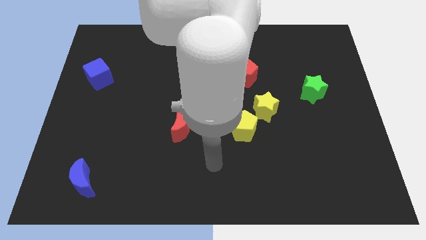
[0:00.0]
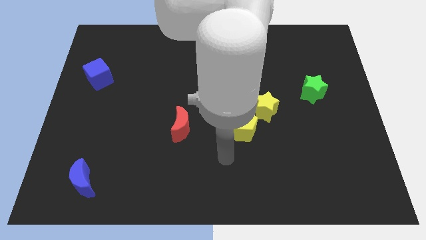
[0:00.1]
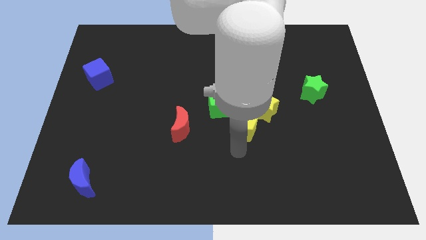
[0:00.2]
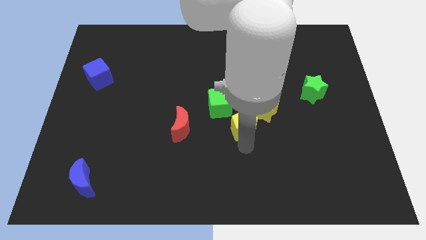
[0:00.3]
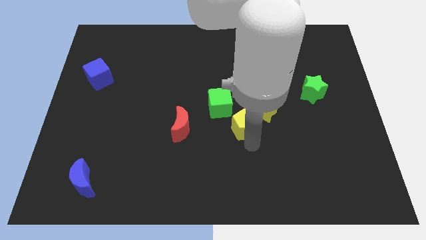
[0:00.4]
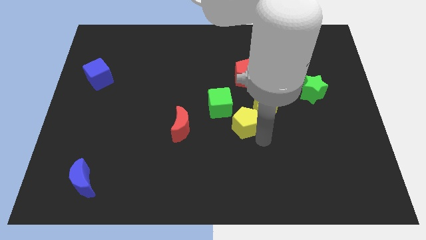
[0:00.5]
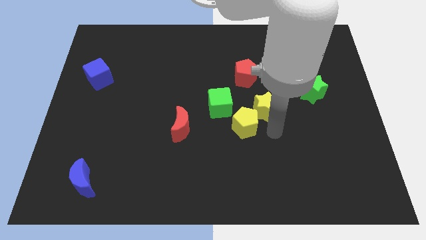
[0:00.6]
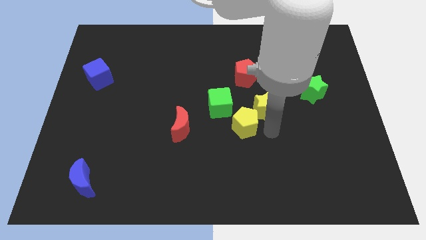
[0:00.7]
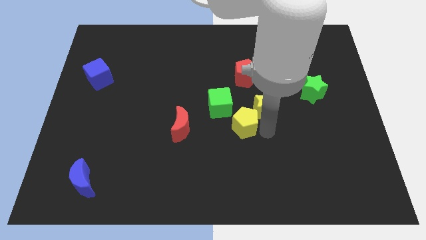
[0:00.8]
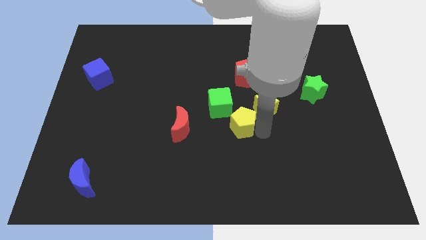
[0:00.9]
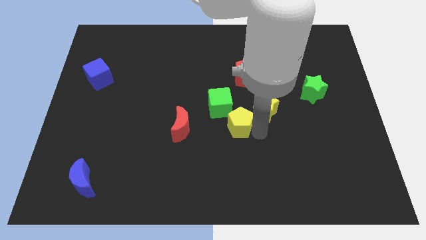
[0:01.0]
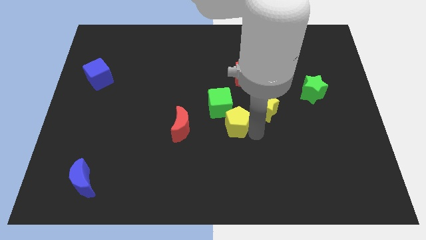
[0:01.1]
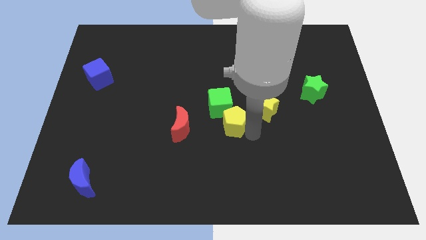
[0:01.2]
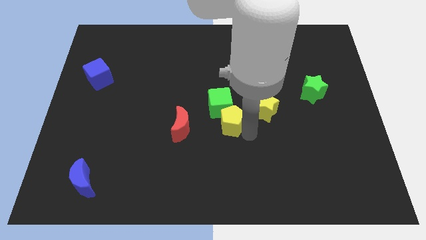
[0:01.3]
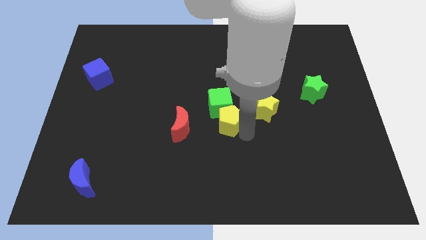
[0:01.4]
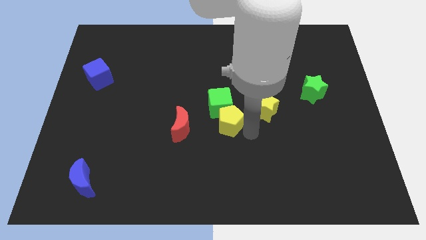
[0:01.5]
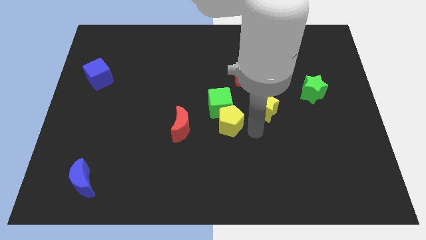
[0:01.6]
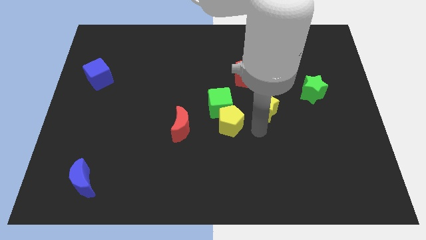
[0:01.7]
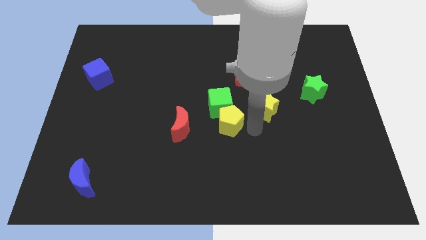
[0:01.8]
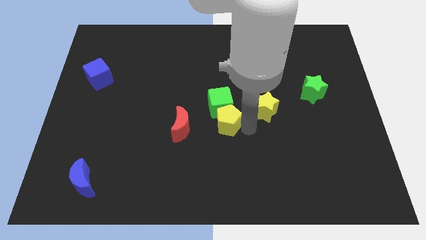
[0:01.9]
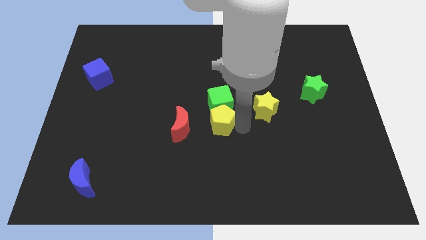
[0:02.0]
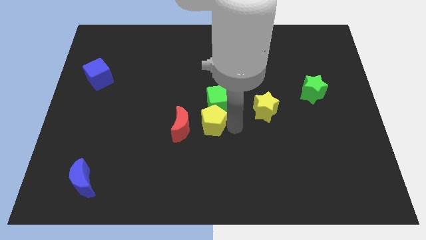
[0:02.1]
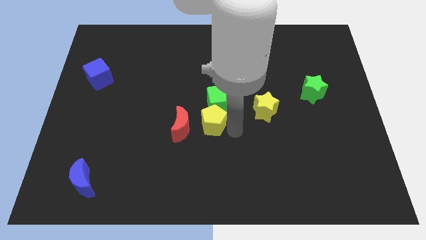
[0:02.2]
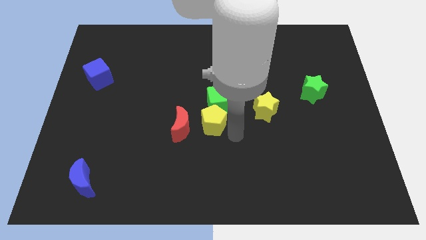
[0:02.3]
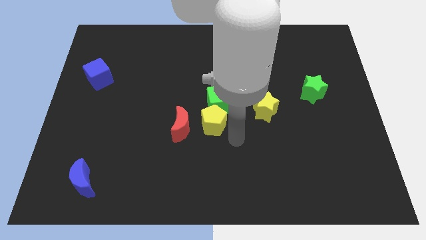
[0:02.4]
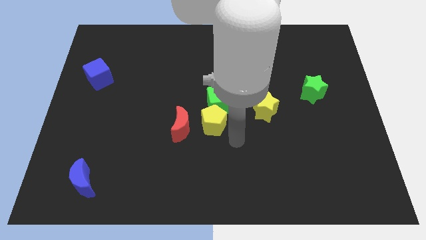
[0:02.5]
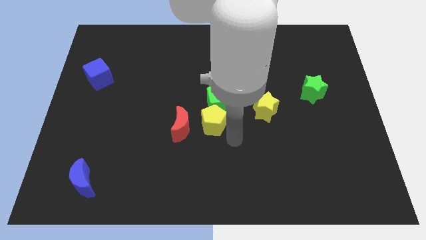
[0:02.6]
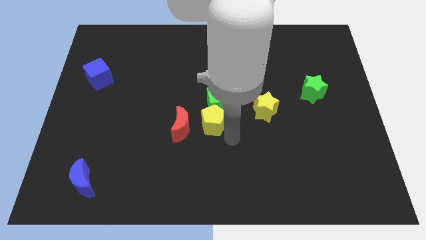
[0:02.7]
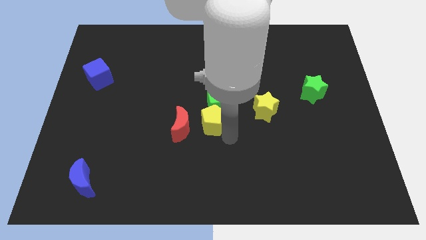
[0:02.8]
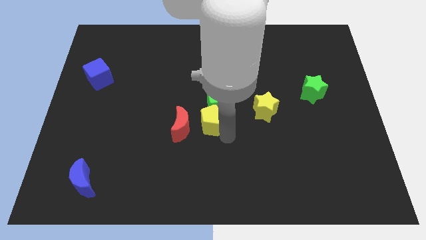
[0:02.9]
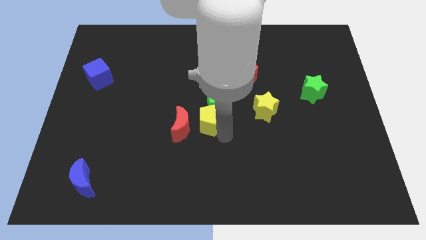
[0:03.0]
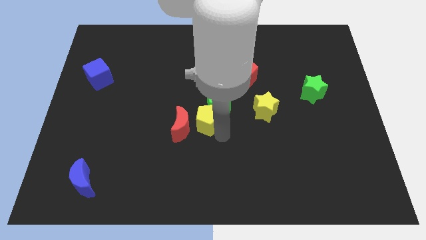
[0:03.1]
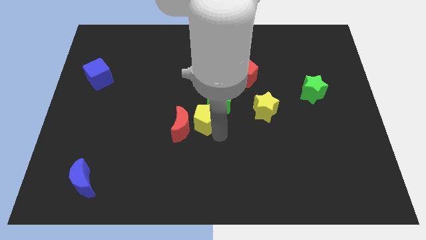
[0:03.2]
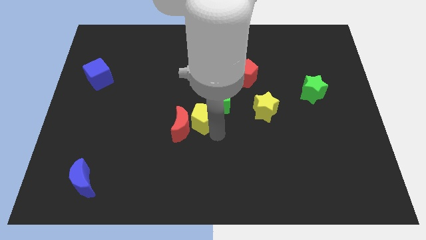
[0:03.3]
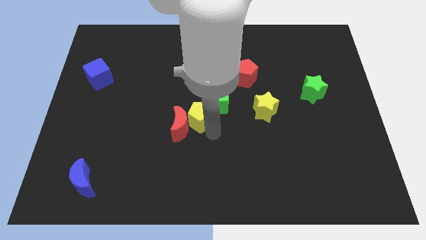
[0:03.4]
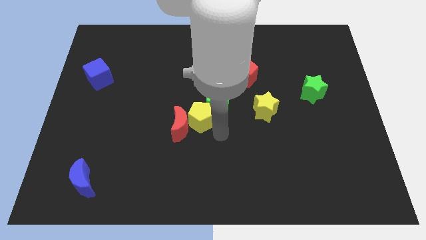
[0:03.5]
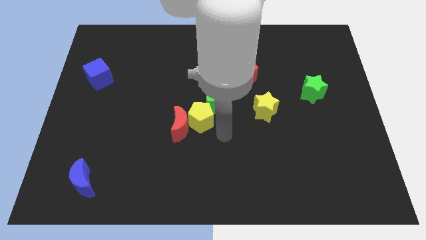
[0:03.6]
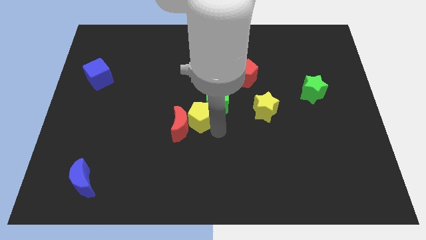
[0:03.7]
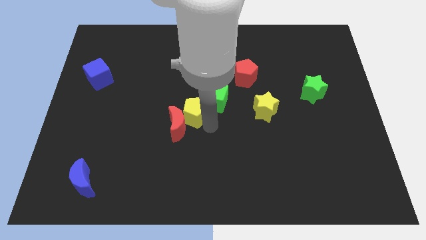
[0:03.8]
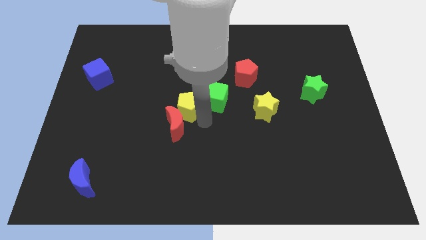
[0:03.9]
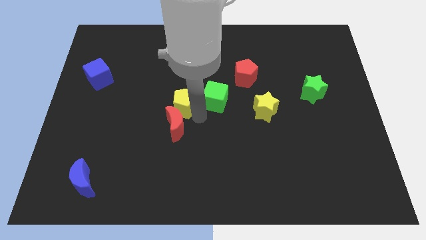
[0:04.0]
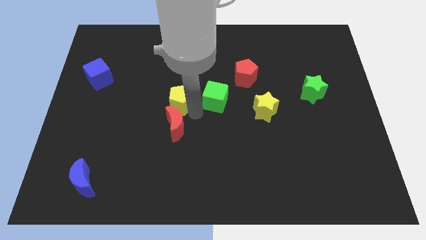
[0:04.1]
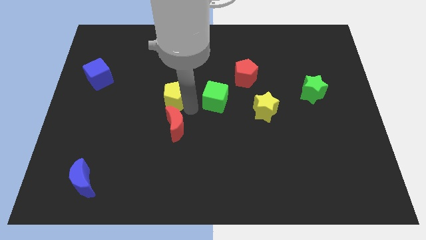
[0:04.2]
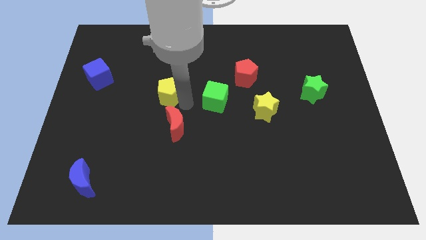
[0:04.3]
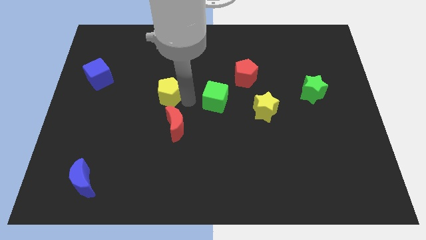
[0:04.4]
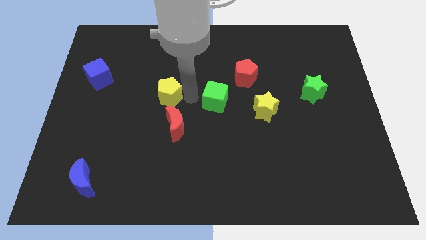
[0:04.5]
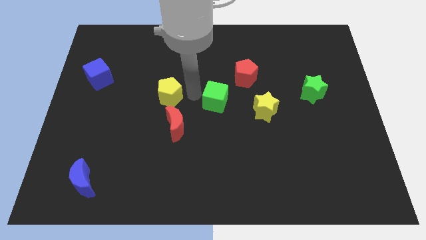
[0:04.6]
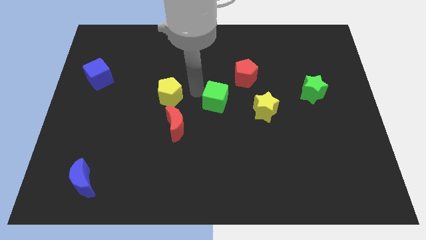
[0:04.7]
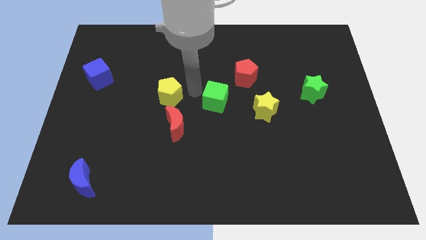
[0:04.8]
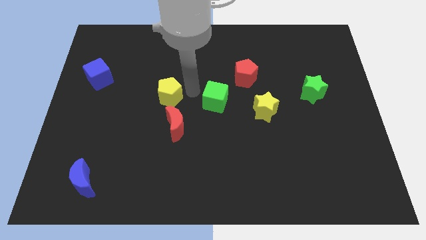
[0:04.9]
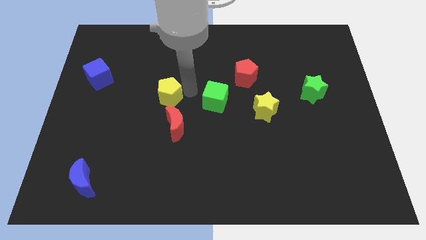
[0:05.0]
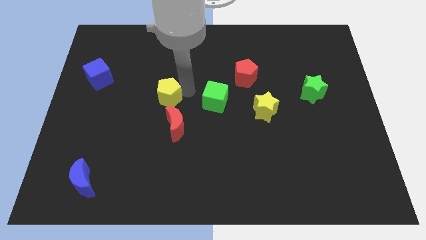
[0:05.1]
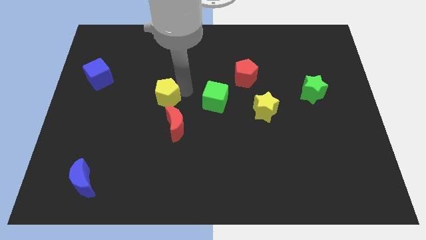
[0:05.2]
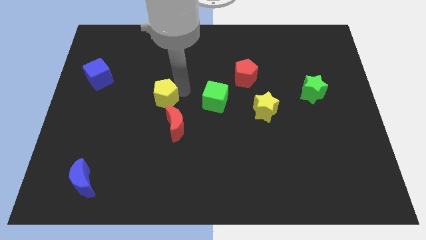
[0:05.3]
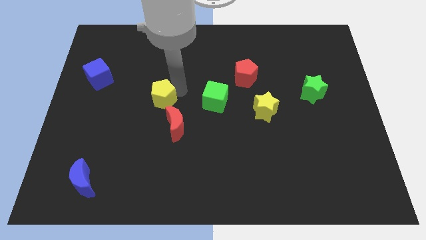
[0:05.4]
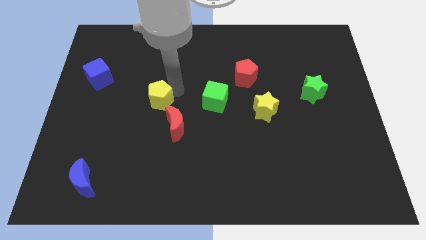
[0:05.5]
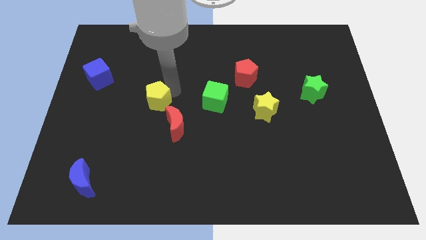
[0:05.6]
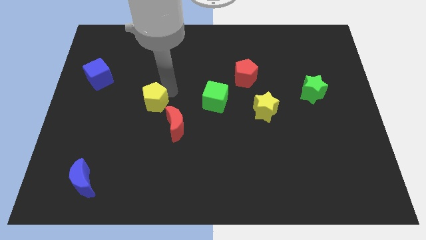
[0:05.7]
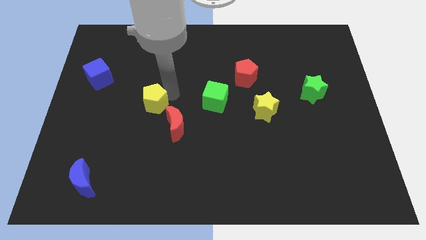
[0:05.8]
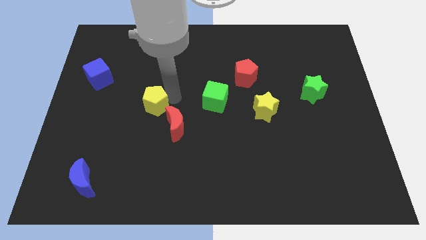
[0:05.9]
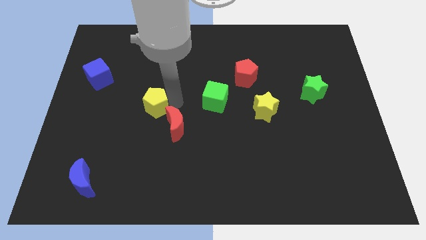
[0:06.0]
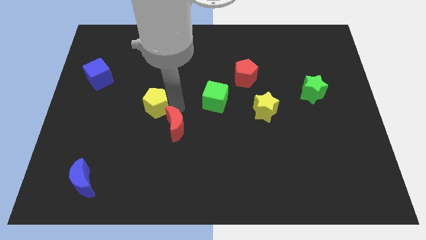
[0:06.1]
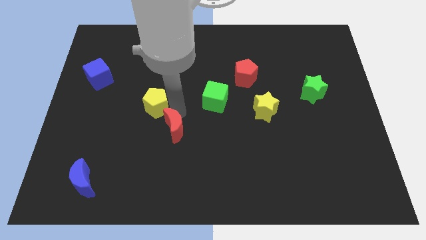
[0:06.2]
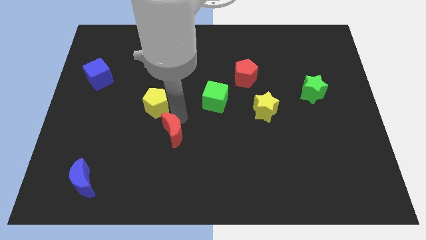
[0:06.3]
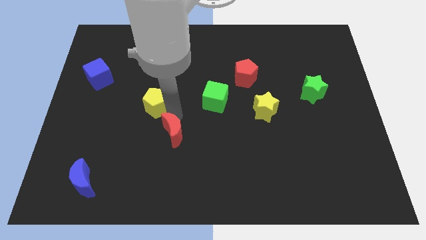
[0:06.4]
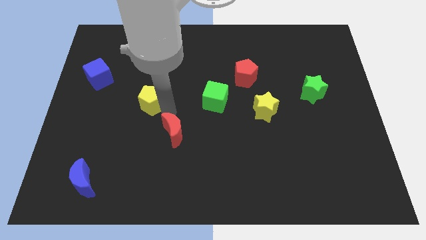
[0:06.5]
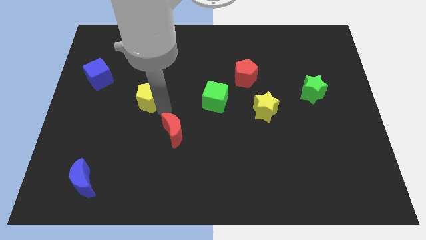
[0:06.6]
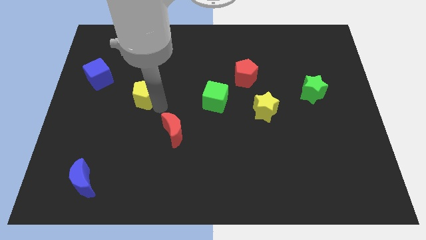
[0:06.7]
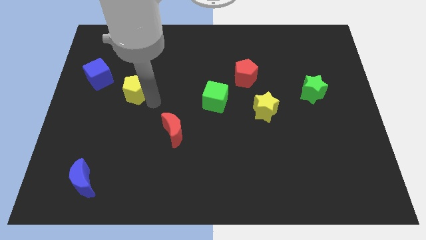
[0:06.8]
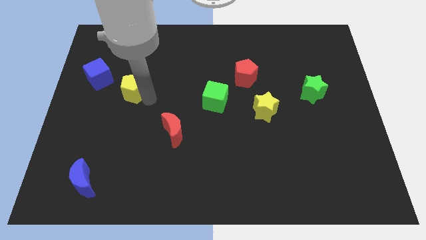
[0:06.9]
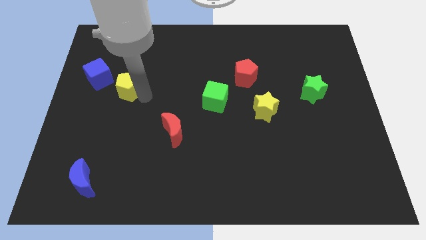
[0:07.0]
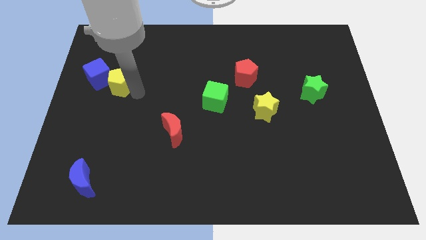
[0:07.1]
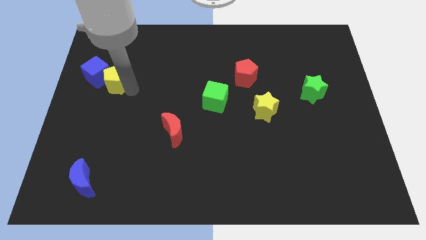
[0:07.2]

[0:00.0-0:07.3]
push the yellow pentagon close to the blue cube
